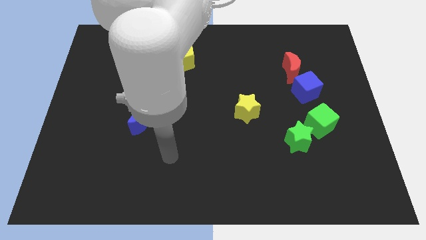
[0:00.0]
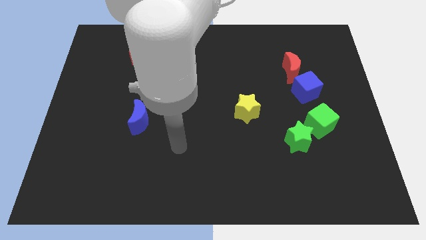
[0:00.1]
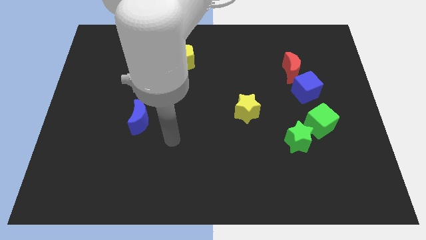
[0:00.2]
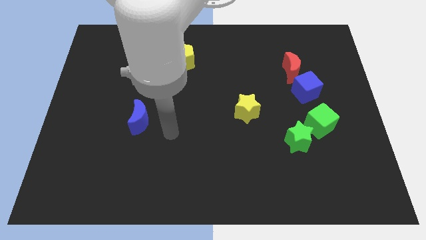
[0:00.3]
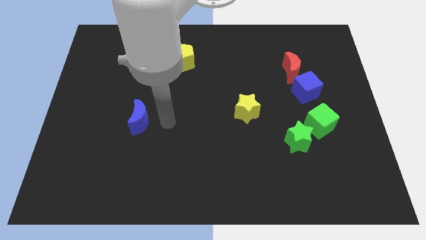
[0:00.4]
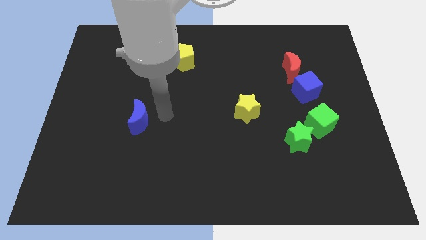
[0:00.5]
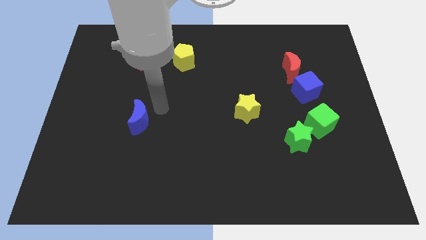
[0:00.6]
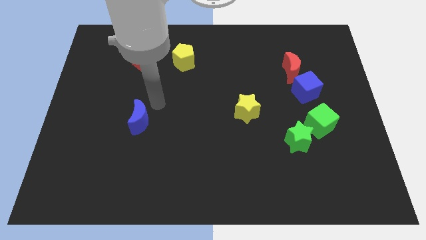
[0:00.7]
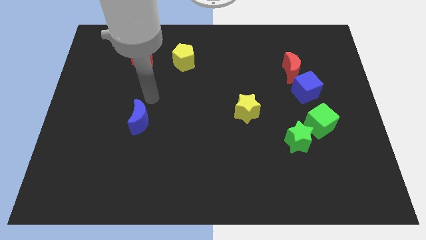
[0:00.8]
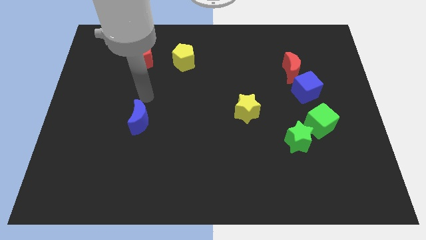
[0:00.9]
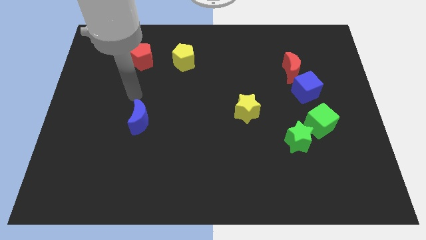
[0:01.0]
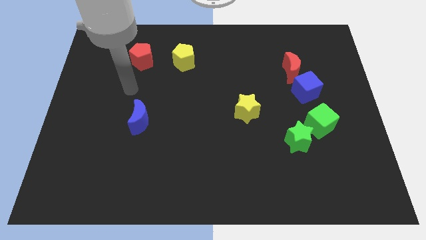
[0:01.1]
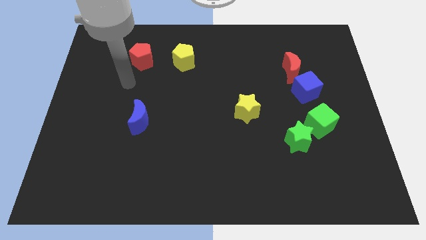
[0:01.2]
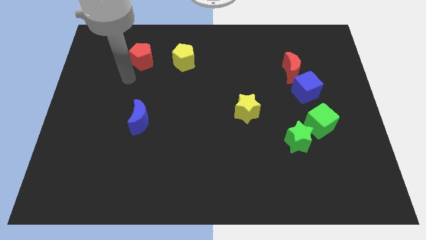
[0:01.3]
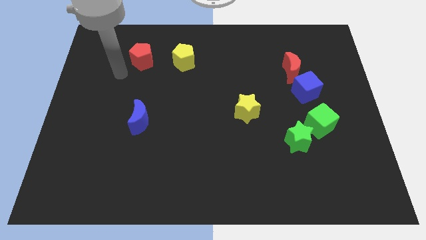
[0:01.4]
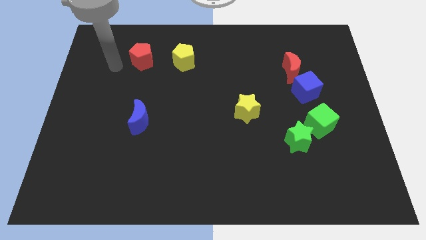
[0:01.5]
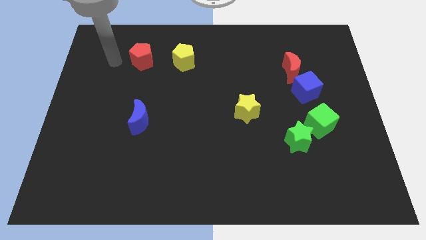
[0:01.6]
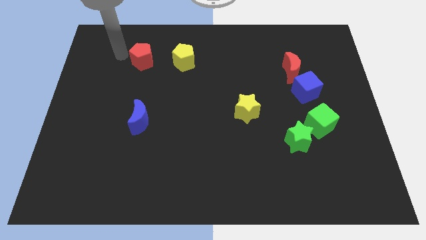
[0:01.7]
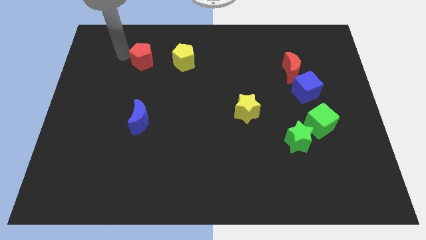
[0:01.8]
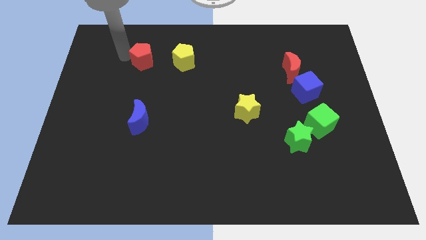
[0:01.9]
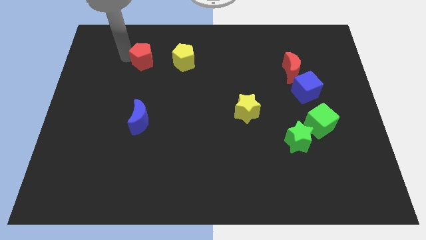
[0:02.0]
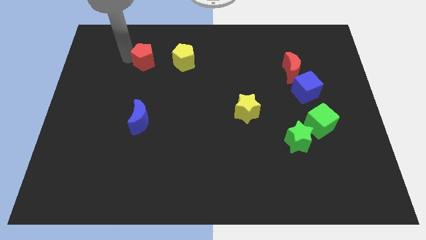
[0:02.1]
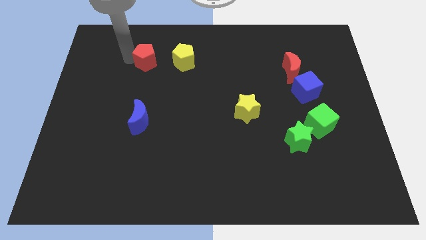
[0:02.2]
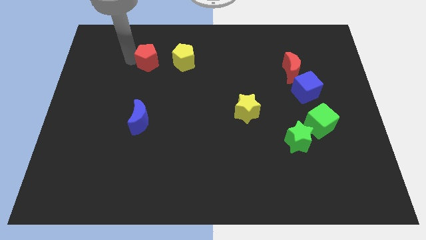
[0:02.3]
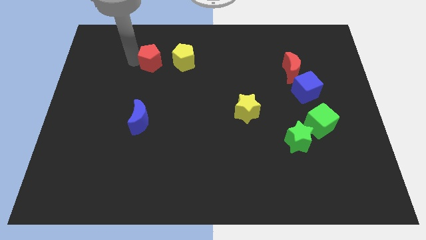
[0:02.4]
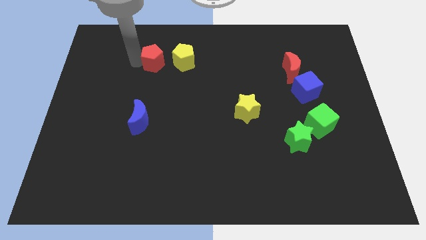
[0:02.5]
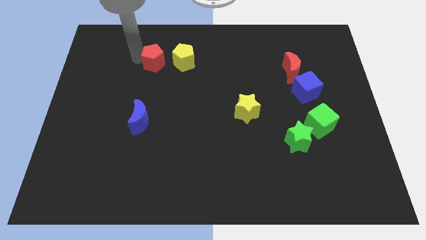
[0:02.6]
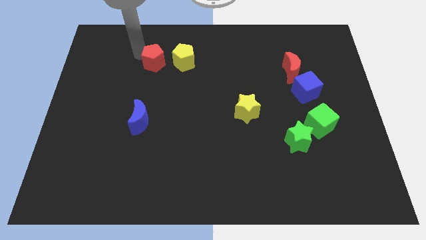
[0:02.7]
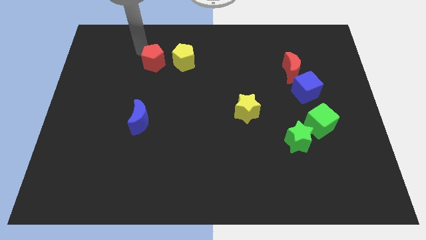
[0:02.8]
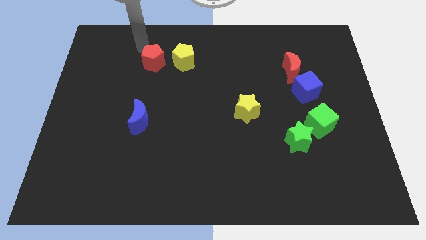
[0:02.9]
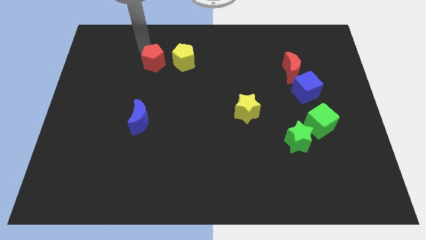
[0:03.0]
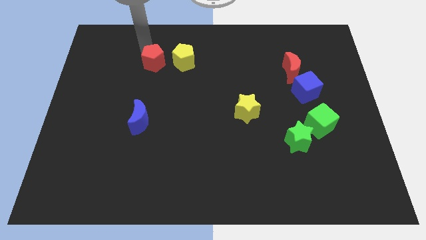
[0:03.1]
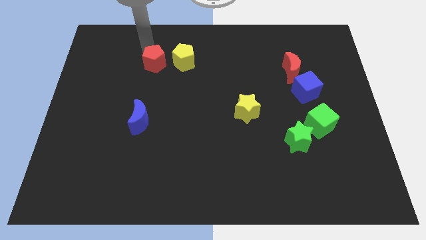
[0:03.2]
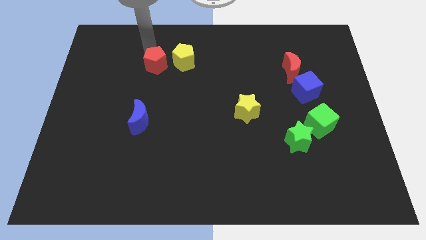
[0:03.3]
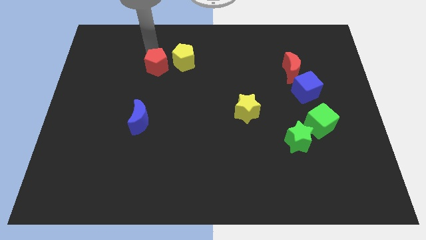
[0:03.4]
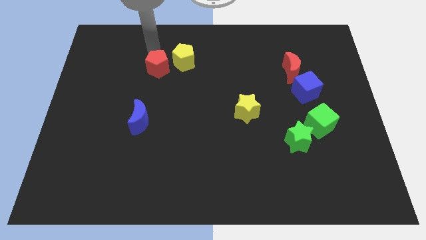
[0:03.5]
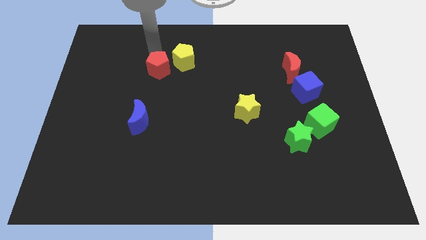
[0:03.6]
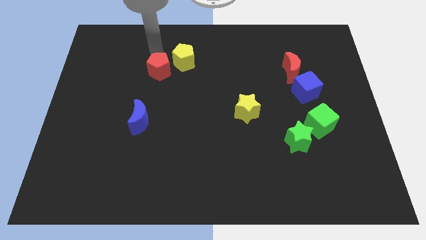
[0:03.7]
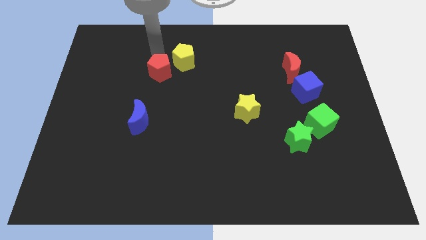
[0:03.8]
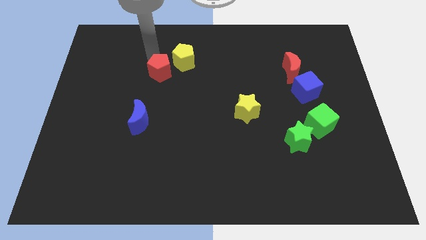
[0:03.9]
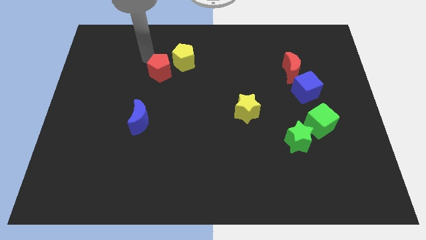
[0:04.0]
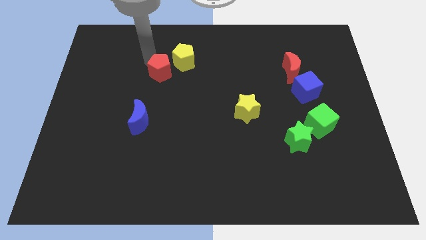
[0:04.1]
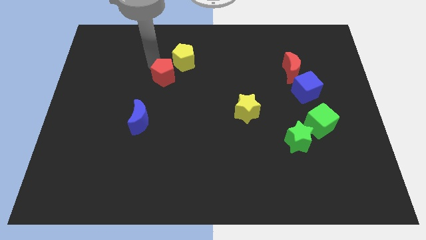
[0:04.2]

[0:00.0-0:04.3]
slide the red pentagon downwards and to the right slightly

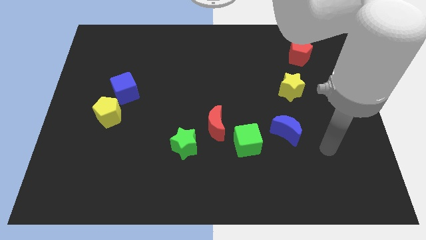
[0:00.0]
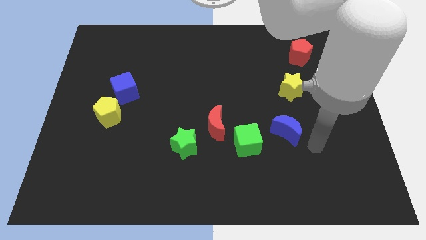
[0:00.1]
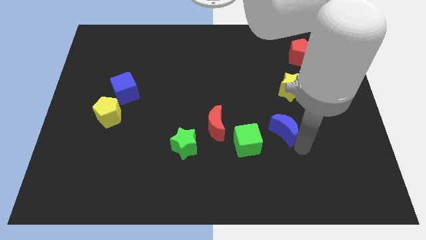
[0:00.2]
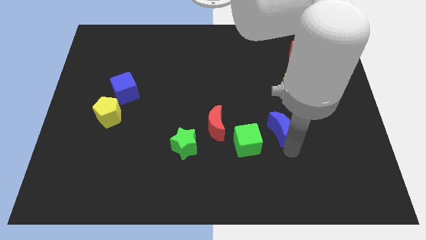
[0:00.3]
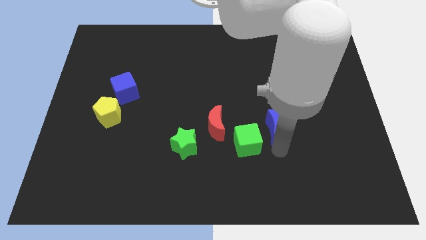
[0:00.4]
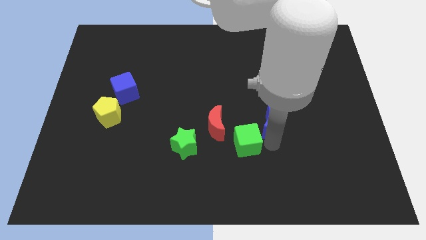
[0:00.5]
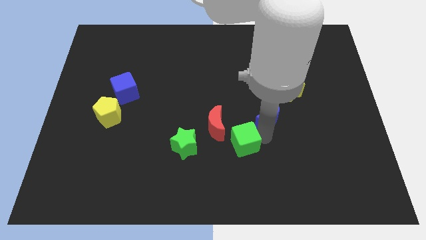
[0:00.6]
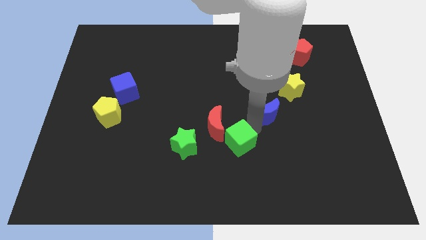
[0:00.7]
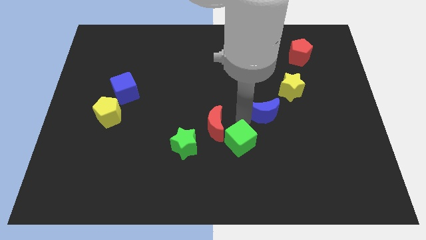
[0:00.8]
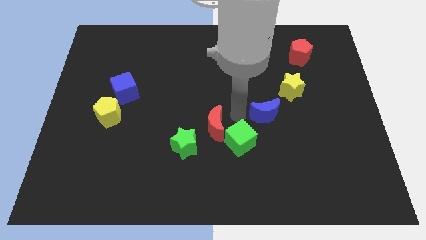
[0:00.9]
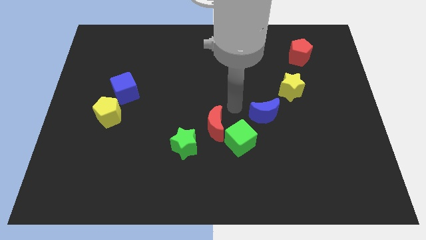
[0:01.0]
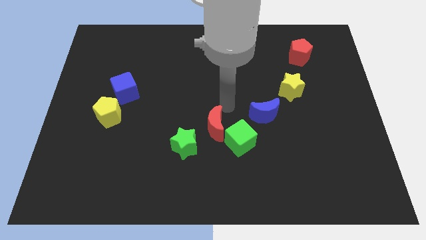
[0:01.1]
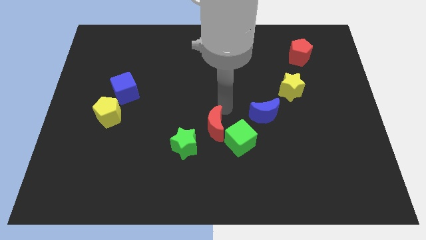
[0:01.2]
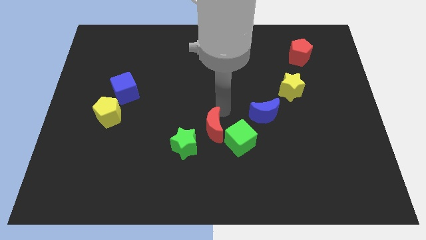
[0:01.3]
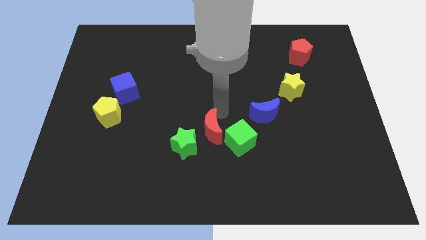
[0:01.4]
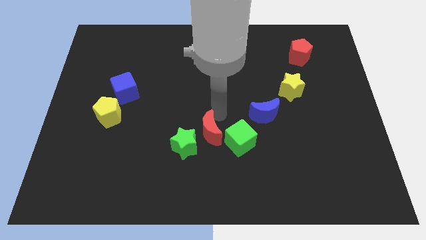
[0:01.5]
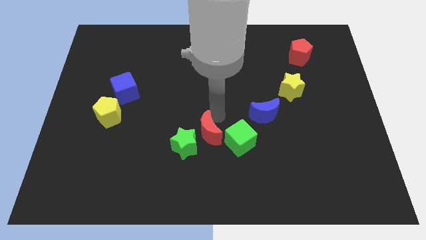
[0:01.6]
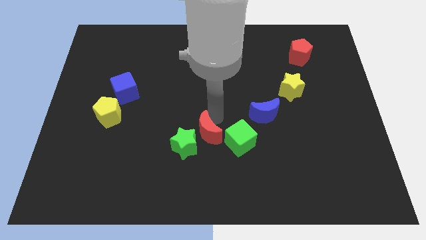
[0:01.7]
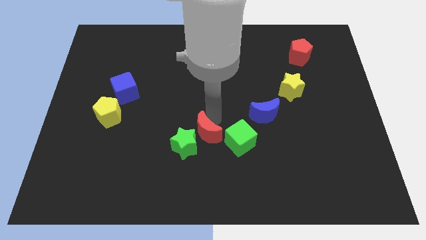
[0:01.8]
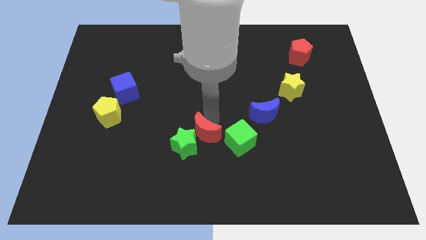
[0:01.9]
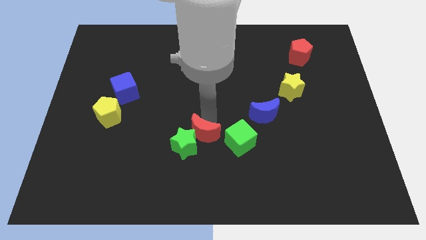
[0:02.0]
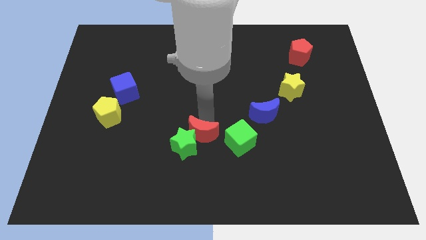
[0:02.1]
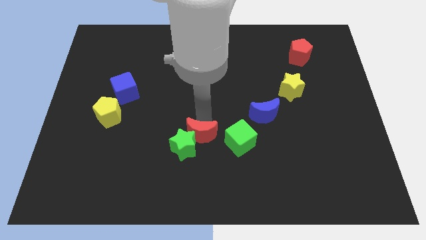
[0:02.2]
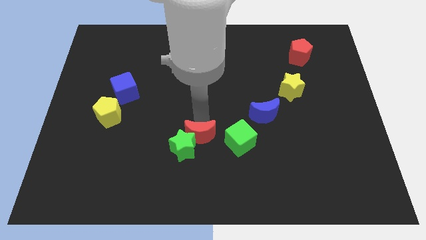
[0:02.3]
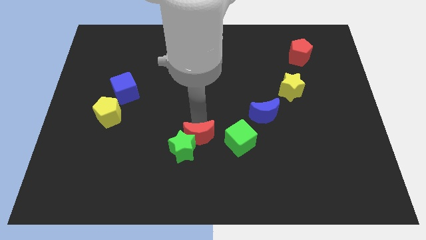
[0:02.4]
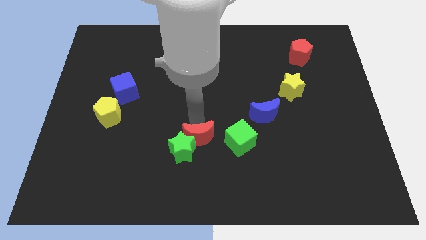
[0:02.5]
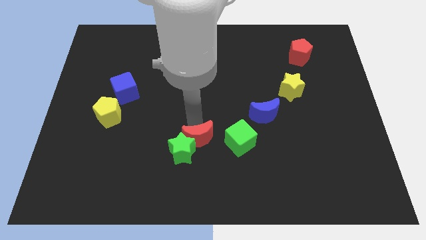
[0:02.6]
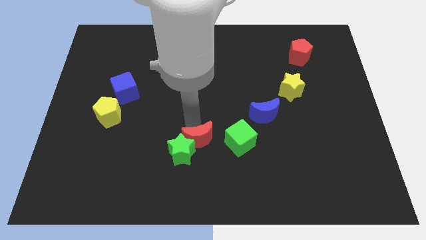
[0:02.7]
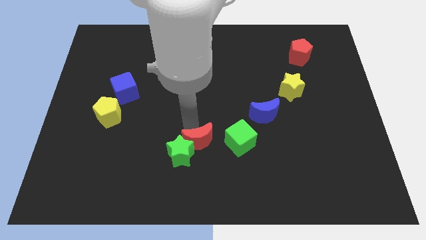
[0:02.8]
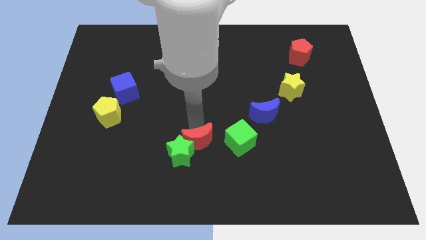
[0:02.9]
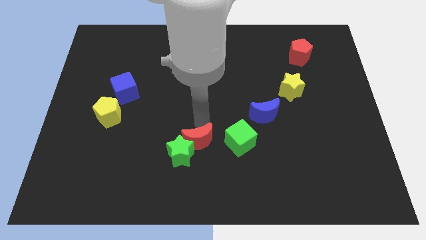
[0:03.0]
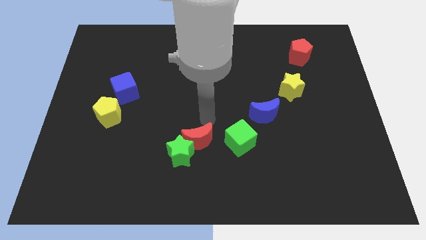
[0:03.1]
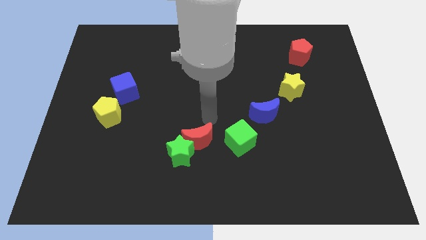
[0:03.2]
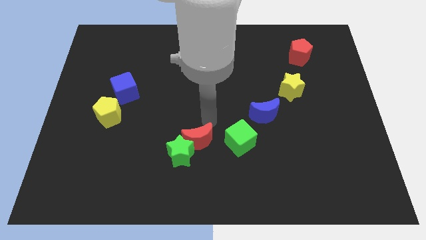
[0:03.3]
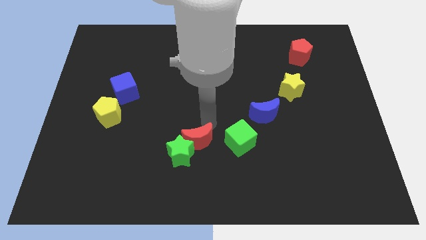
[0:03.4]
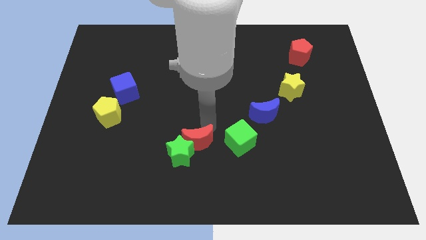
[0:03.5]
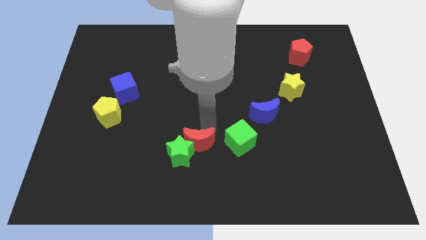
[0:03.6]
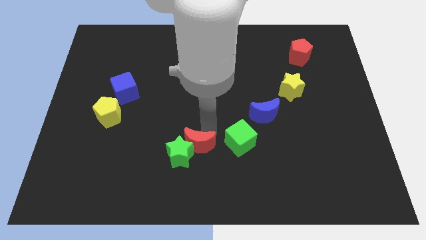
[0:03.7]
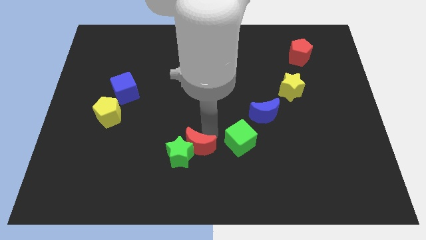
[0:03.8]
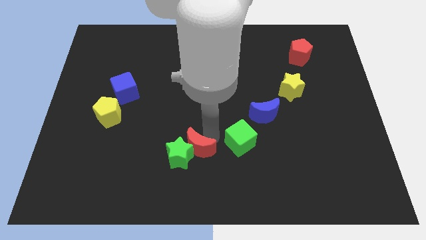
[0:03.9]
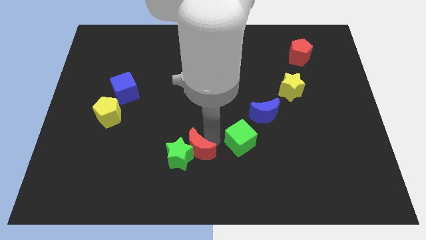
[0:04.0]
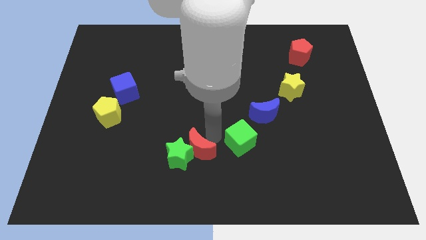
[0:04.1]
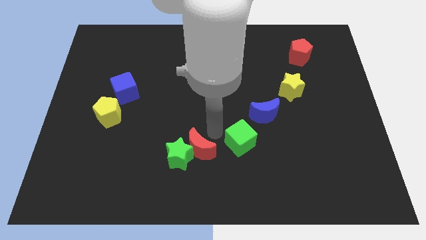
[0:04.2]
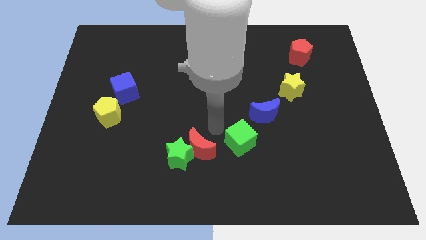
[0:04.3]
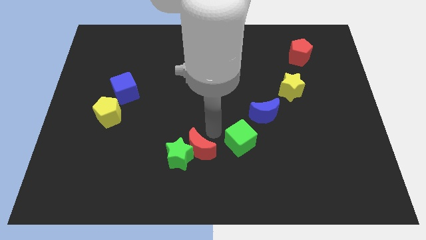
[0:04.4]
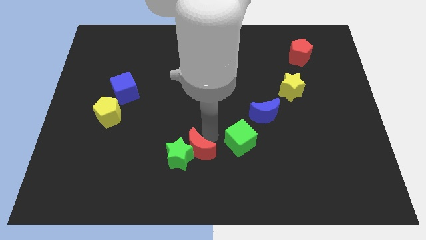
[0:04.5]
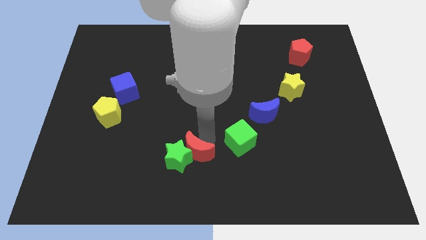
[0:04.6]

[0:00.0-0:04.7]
slightly push the red moon downwards and then left
